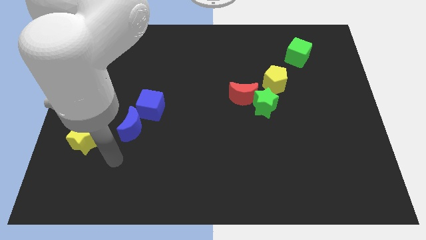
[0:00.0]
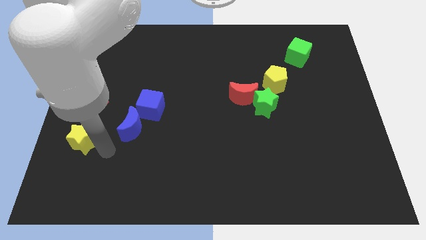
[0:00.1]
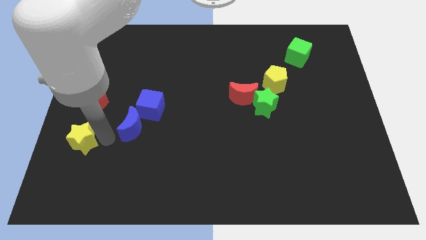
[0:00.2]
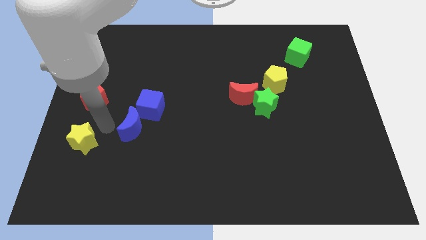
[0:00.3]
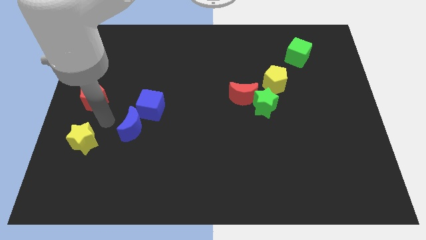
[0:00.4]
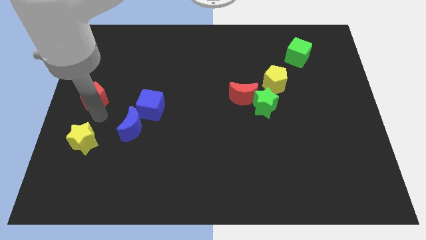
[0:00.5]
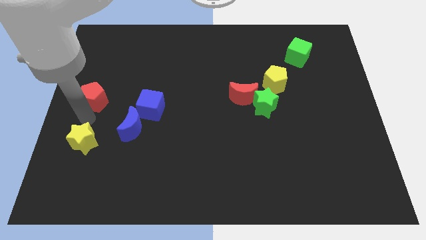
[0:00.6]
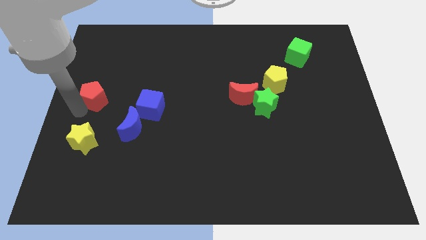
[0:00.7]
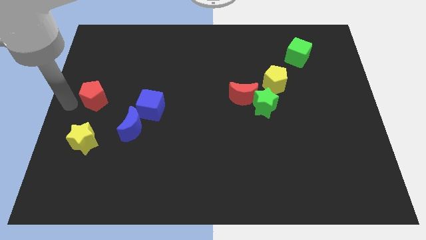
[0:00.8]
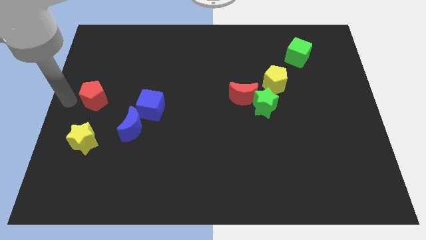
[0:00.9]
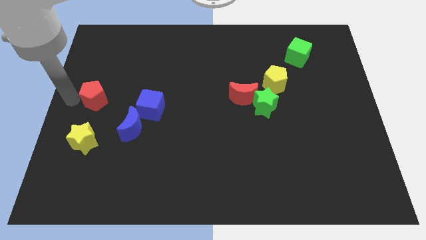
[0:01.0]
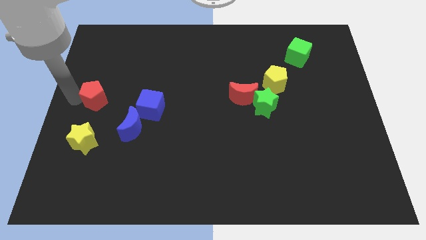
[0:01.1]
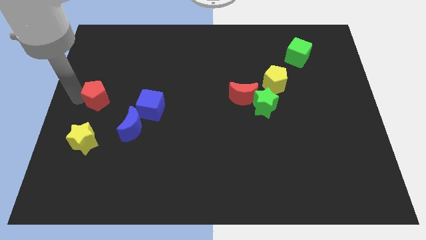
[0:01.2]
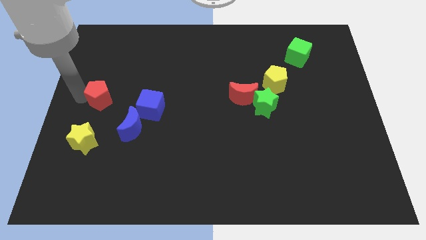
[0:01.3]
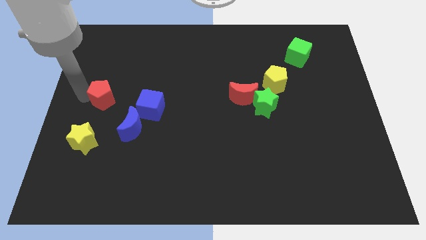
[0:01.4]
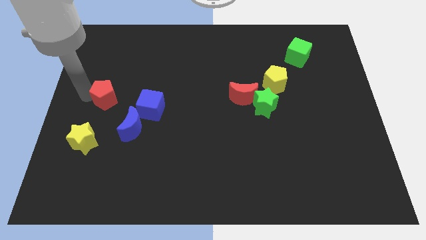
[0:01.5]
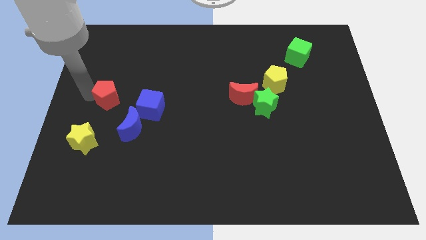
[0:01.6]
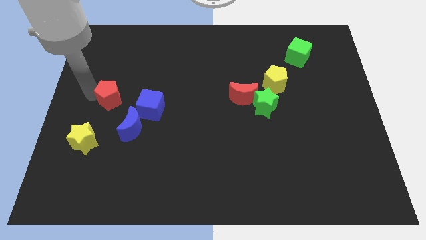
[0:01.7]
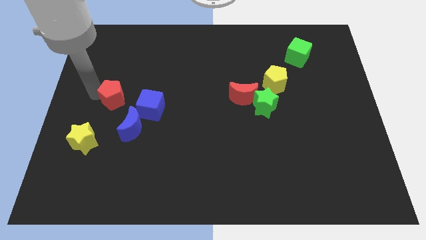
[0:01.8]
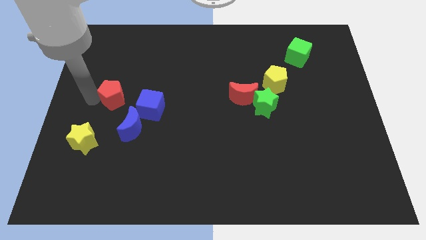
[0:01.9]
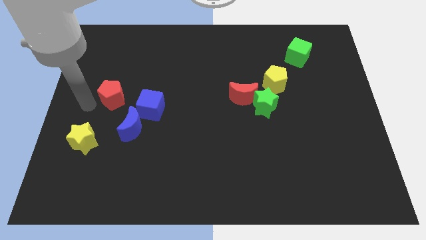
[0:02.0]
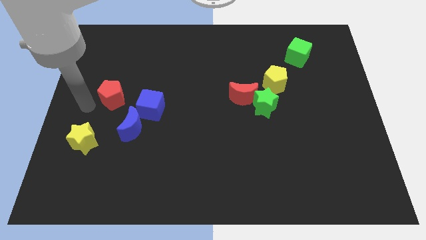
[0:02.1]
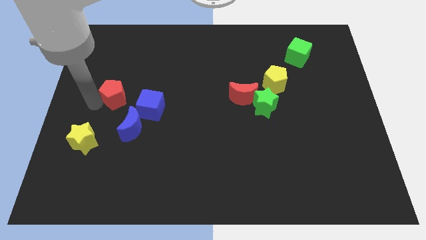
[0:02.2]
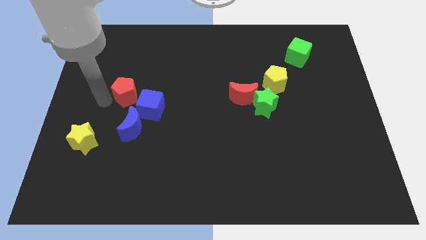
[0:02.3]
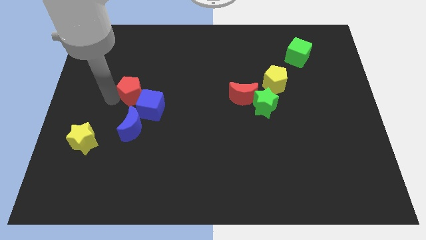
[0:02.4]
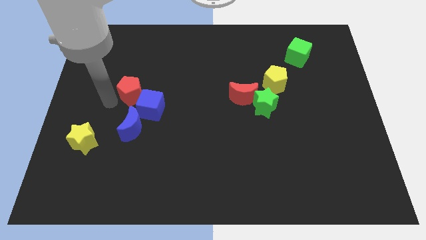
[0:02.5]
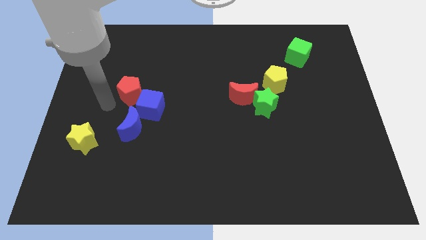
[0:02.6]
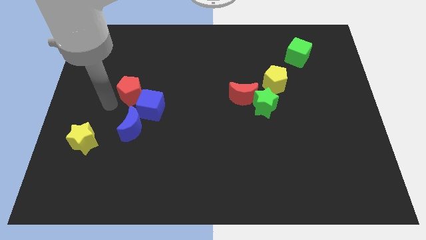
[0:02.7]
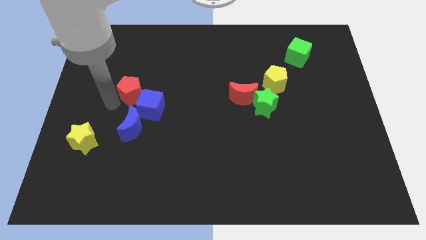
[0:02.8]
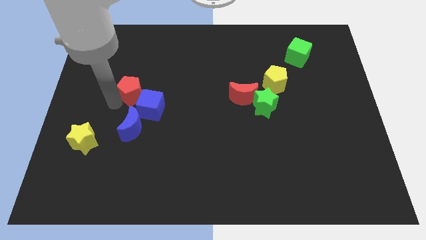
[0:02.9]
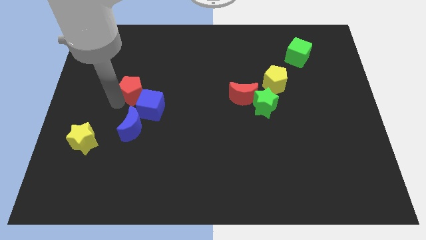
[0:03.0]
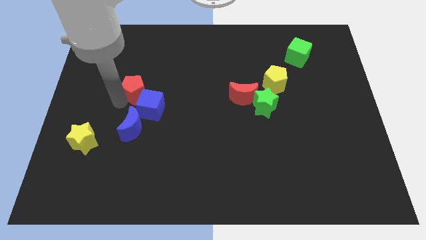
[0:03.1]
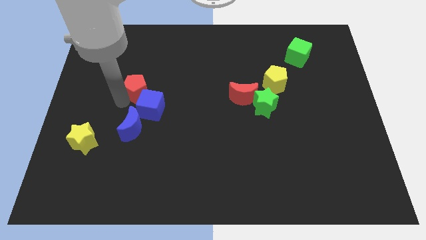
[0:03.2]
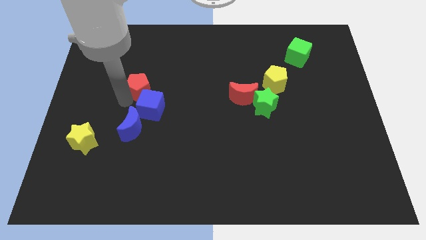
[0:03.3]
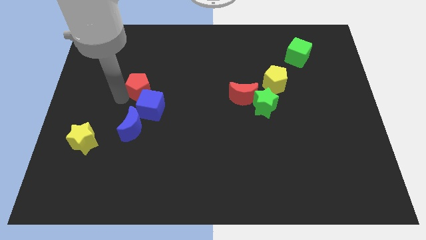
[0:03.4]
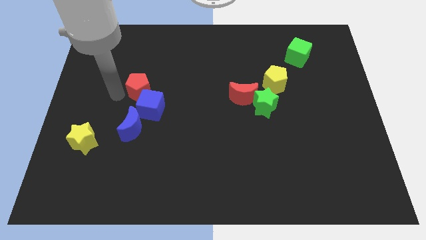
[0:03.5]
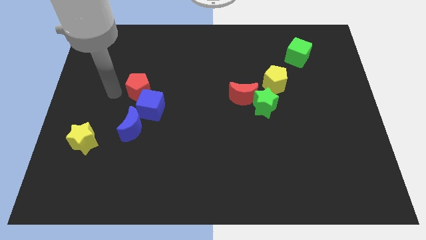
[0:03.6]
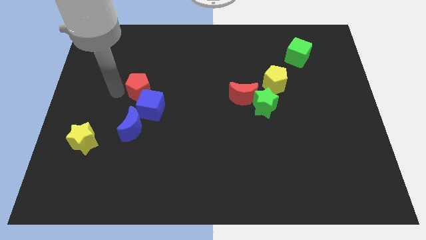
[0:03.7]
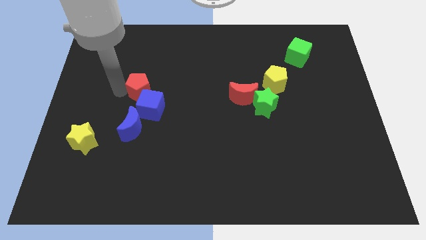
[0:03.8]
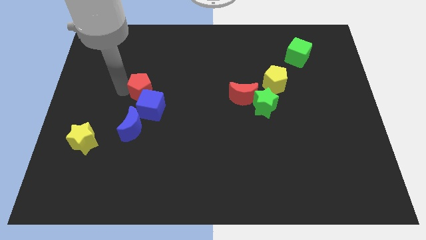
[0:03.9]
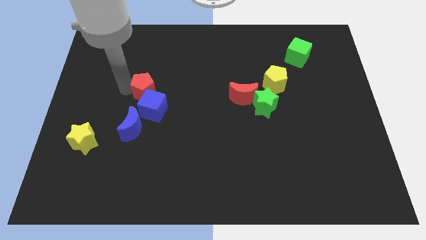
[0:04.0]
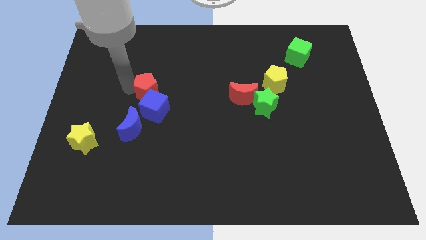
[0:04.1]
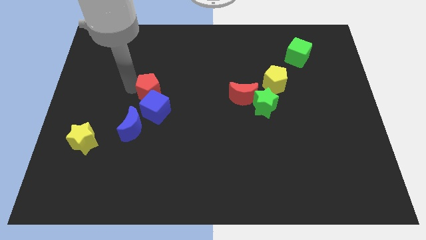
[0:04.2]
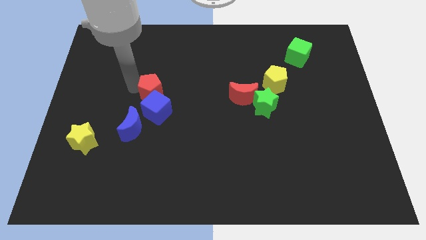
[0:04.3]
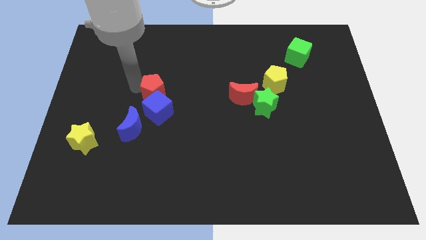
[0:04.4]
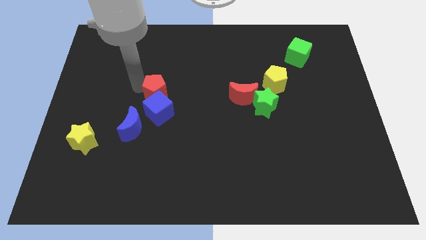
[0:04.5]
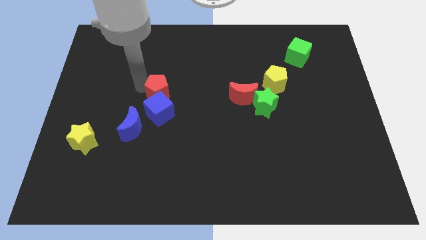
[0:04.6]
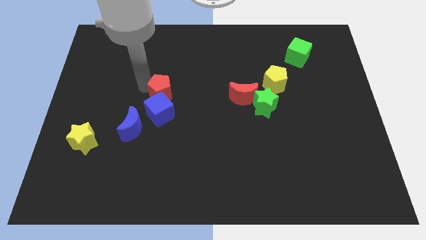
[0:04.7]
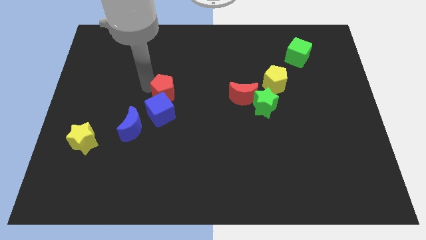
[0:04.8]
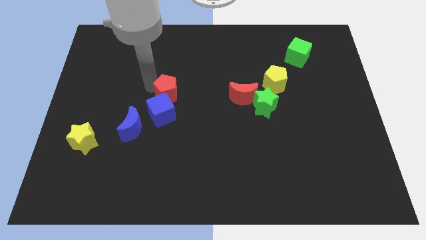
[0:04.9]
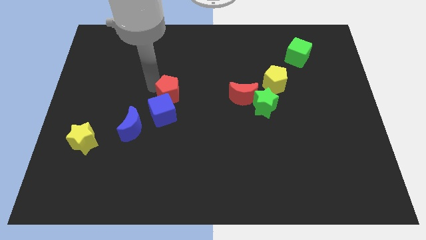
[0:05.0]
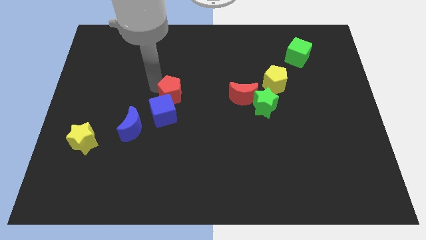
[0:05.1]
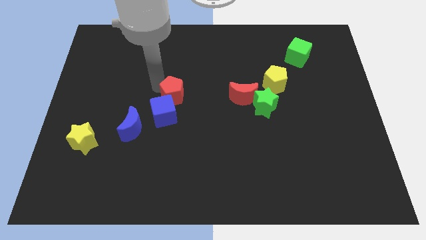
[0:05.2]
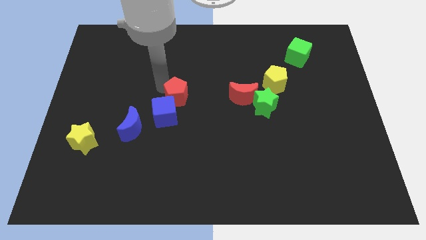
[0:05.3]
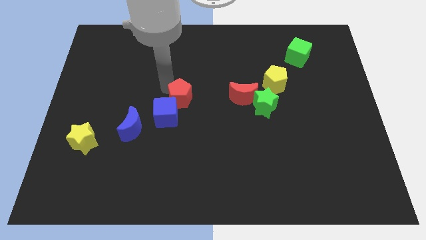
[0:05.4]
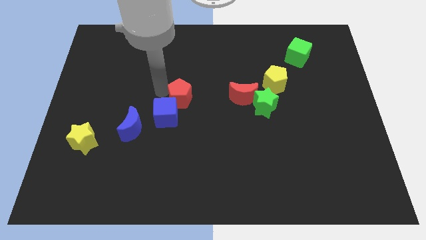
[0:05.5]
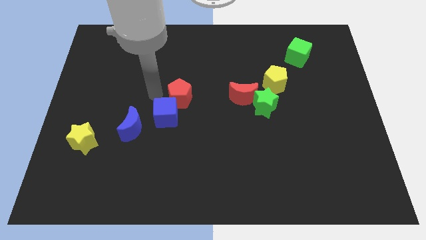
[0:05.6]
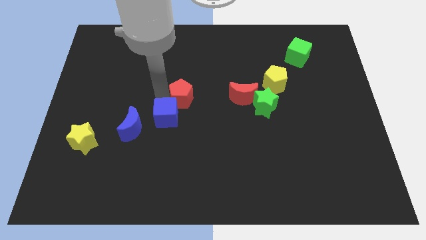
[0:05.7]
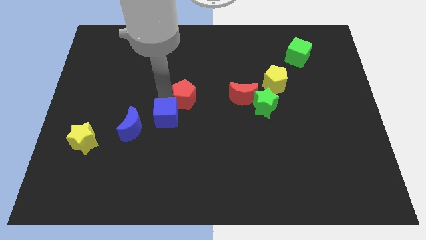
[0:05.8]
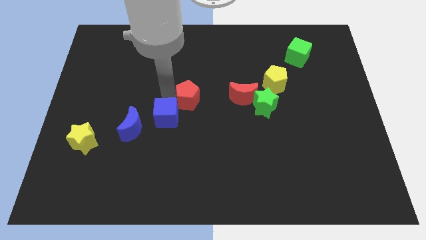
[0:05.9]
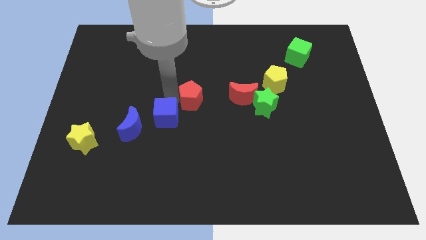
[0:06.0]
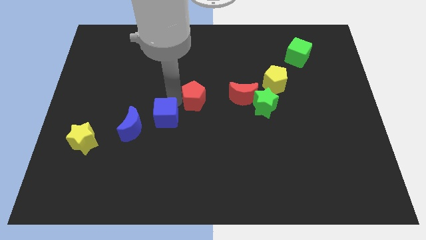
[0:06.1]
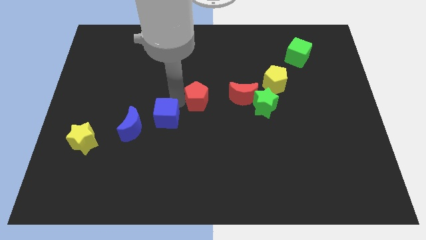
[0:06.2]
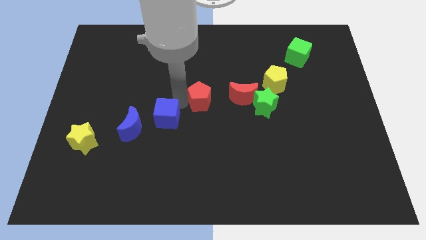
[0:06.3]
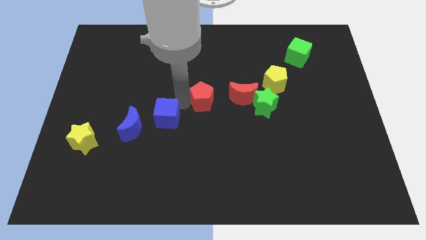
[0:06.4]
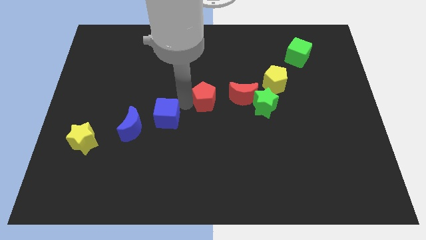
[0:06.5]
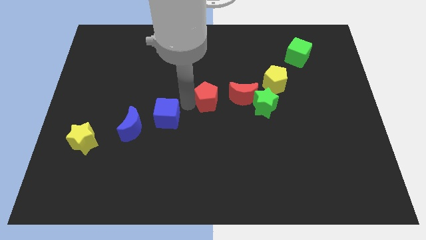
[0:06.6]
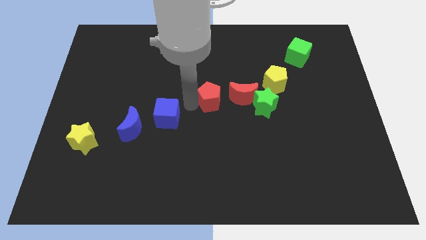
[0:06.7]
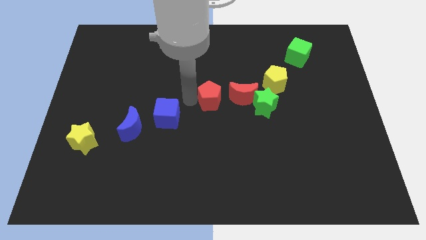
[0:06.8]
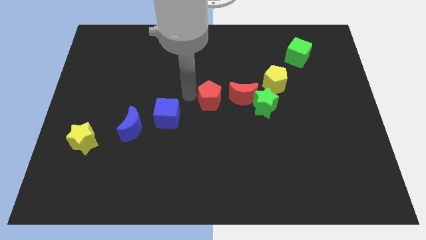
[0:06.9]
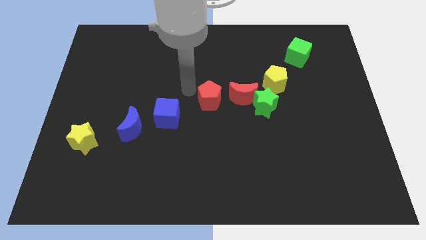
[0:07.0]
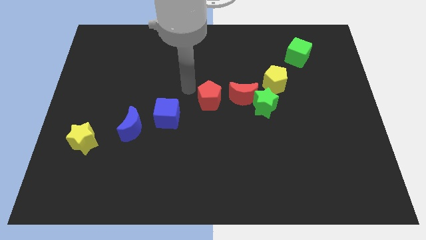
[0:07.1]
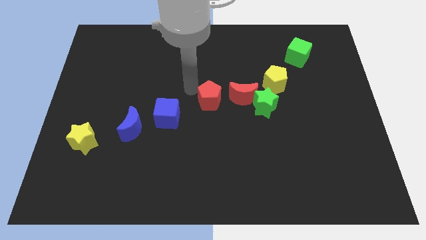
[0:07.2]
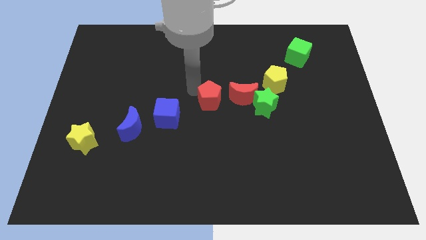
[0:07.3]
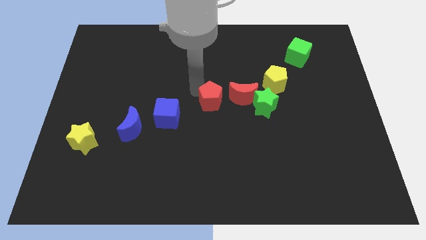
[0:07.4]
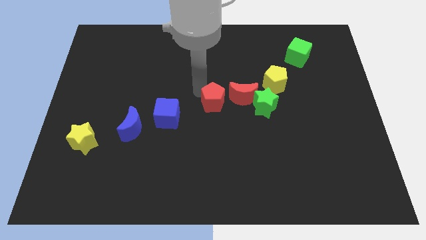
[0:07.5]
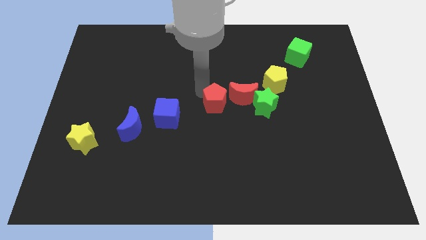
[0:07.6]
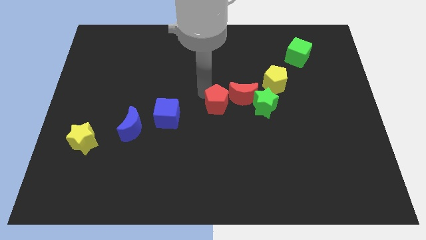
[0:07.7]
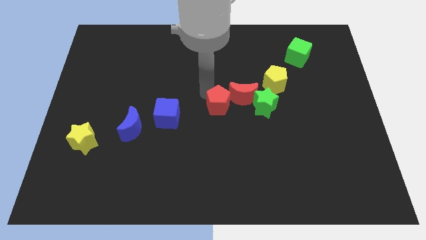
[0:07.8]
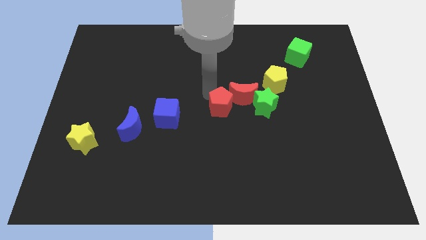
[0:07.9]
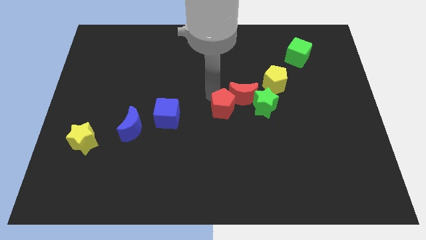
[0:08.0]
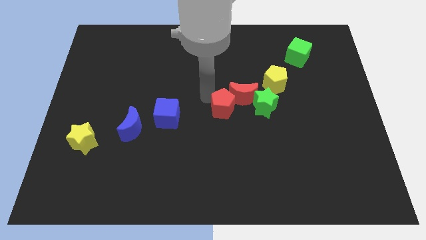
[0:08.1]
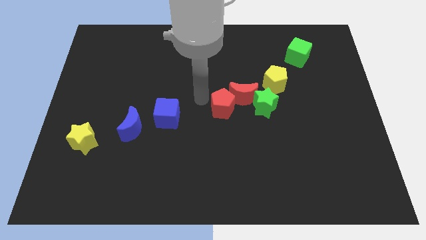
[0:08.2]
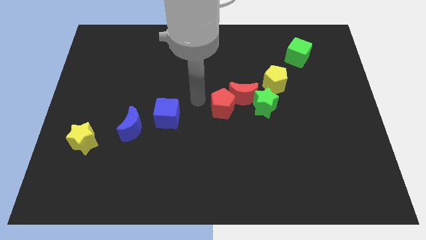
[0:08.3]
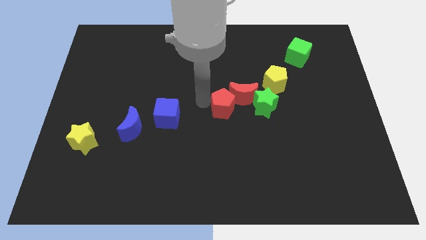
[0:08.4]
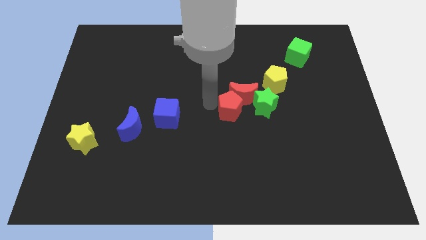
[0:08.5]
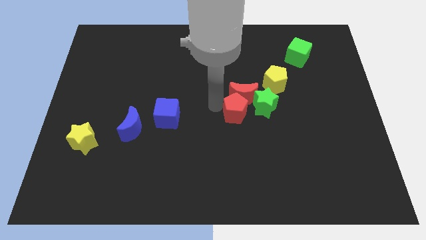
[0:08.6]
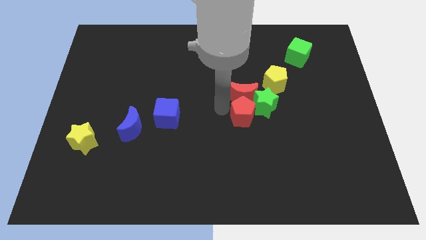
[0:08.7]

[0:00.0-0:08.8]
move the red pentagon next to the green star
